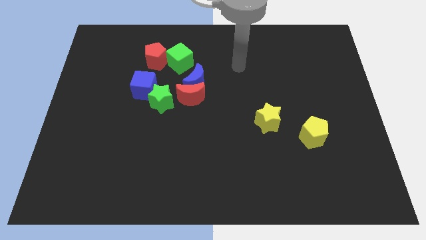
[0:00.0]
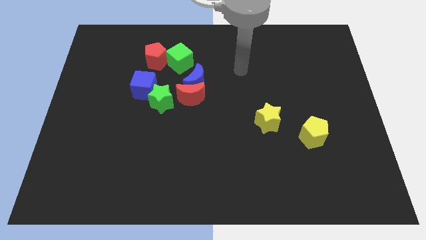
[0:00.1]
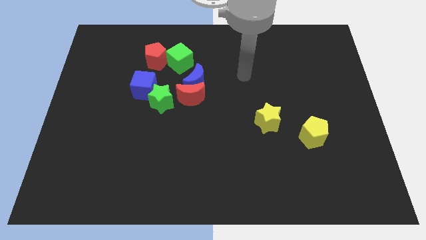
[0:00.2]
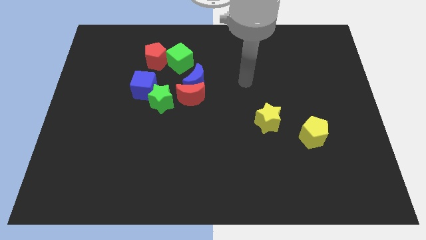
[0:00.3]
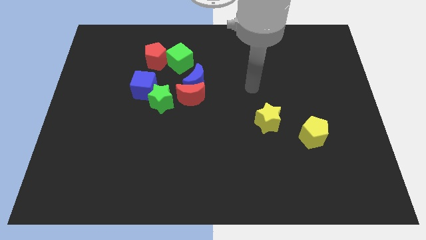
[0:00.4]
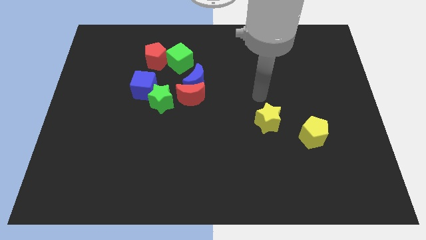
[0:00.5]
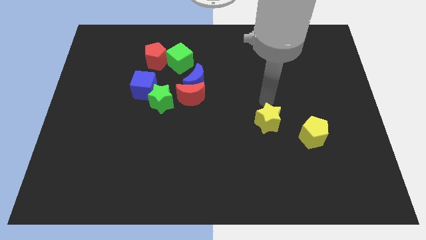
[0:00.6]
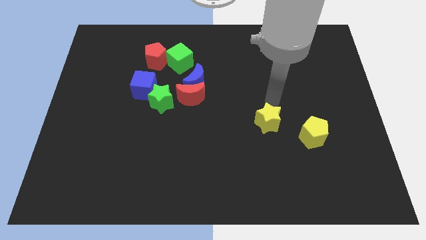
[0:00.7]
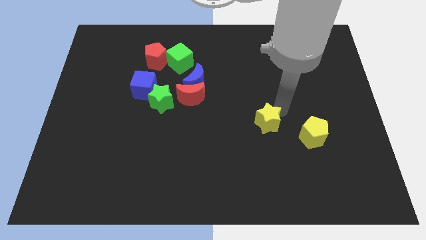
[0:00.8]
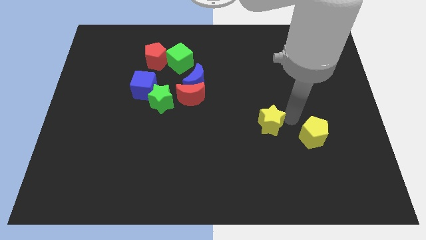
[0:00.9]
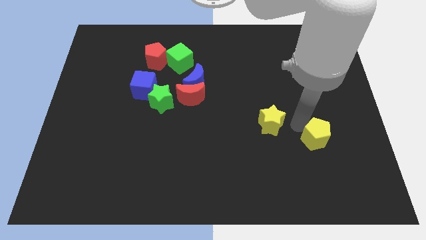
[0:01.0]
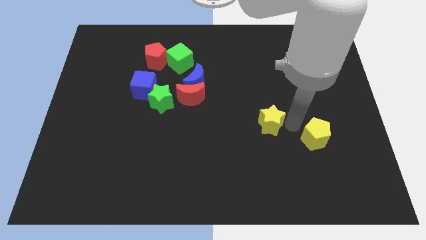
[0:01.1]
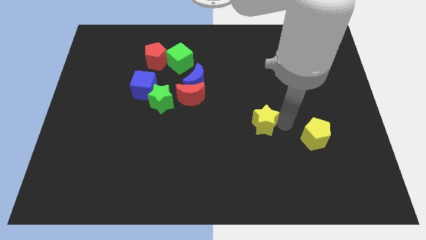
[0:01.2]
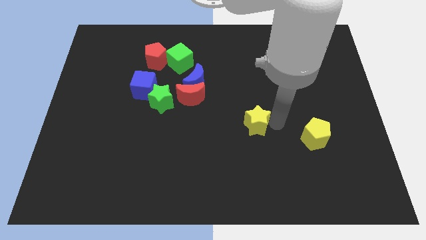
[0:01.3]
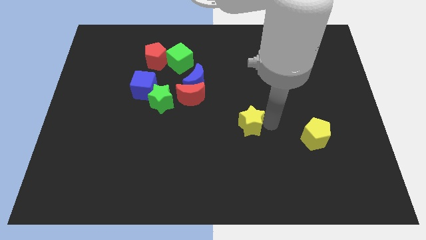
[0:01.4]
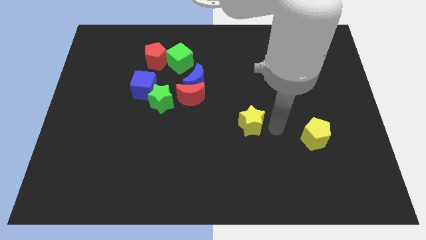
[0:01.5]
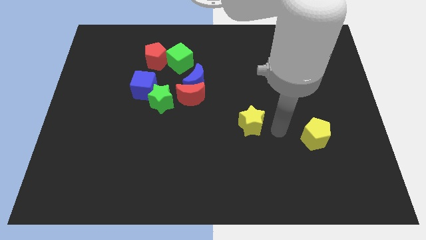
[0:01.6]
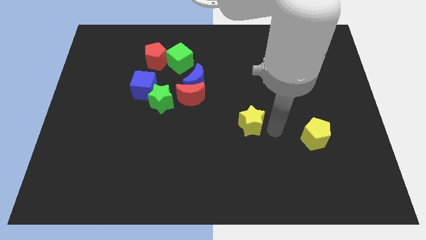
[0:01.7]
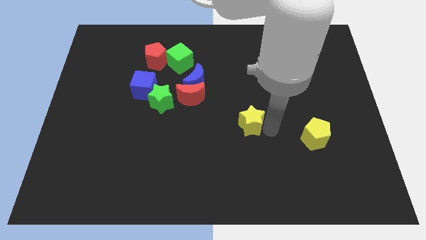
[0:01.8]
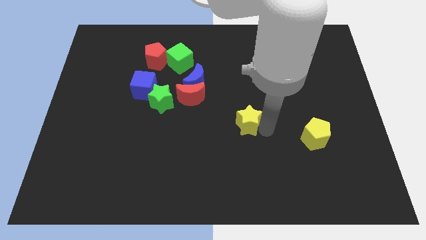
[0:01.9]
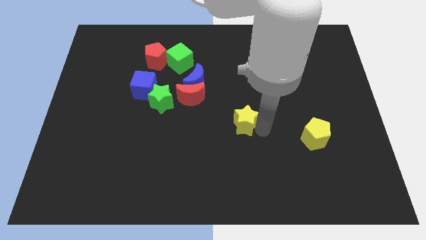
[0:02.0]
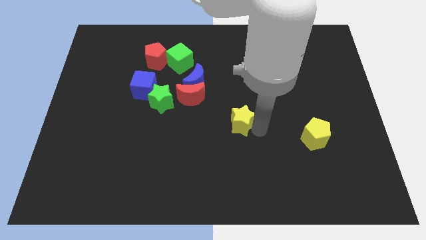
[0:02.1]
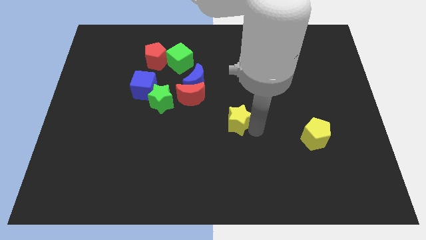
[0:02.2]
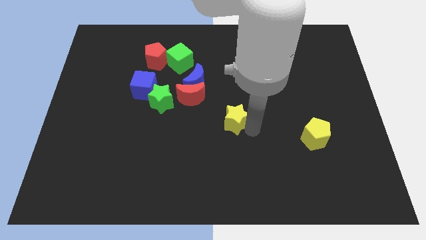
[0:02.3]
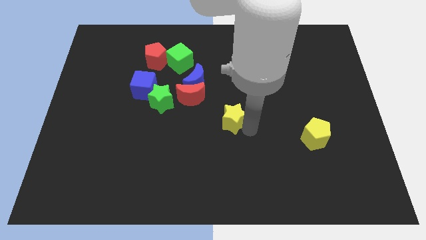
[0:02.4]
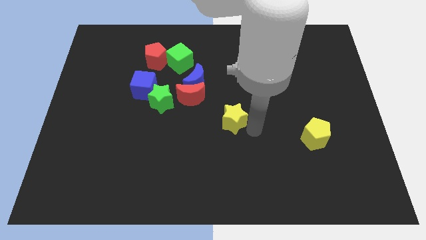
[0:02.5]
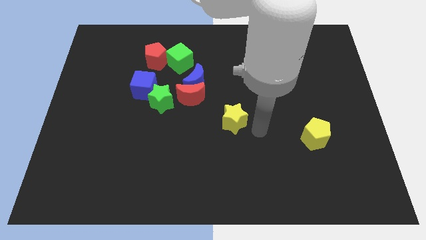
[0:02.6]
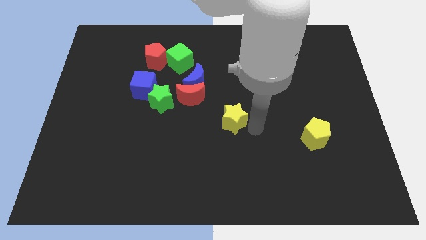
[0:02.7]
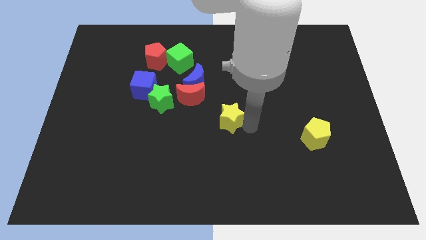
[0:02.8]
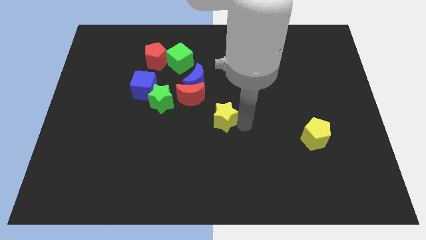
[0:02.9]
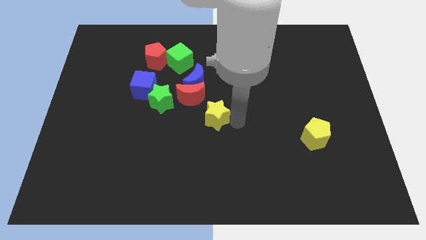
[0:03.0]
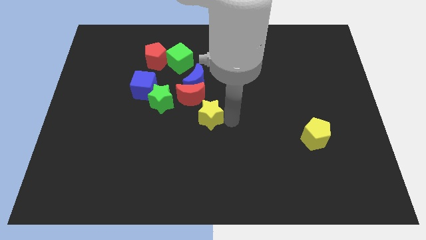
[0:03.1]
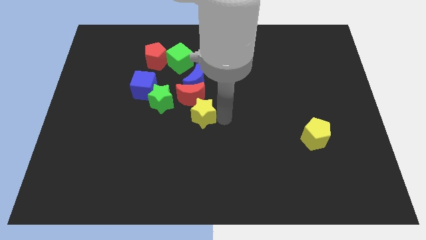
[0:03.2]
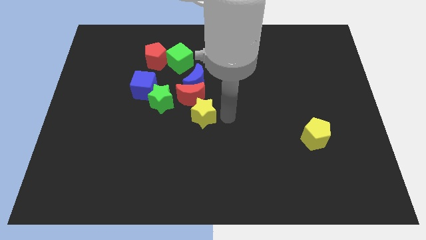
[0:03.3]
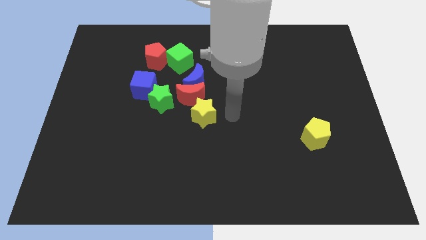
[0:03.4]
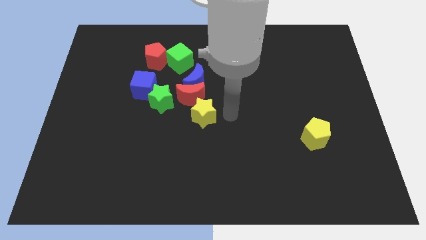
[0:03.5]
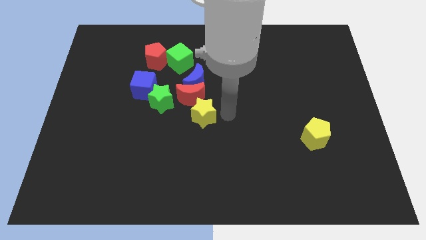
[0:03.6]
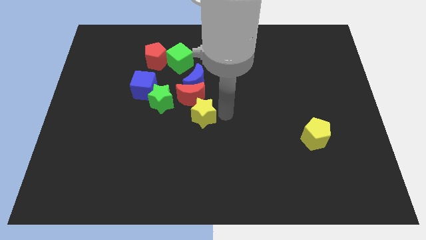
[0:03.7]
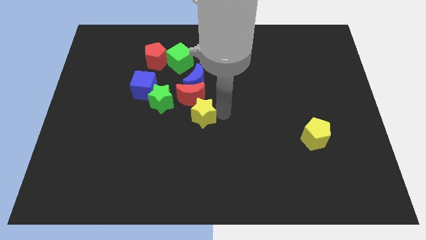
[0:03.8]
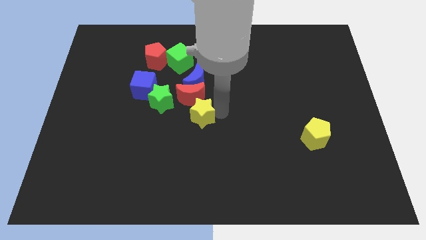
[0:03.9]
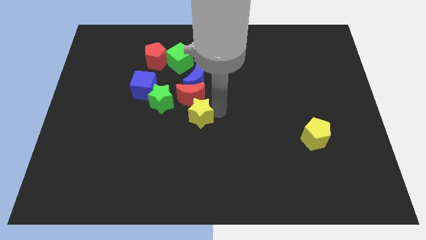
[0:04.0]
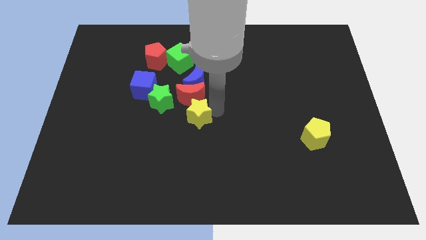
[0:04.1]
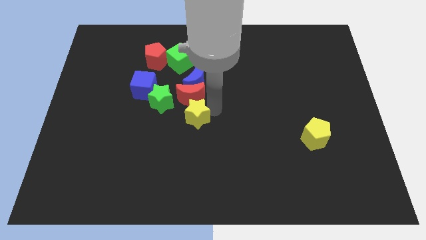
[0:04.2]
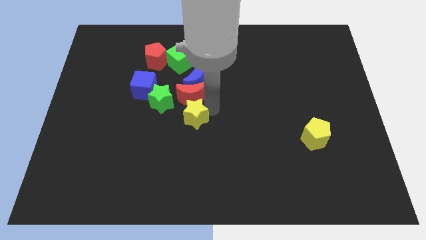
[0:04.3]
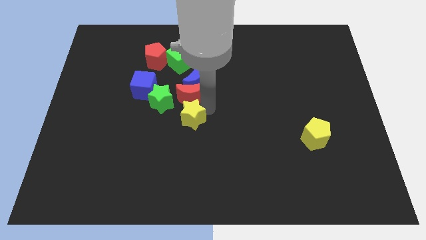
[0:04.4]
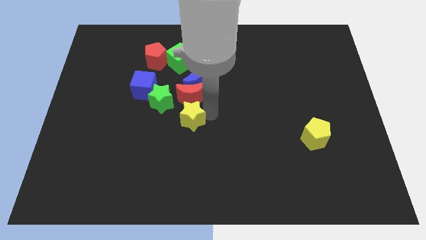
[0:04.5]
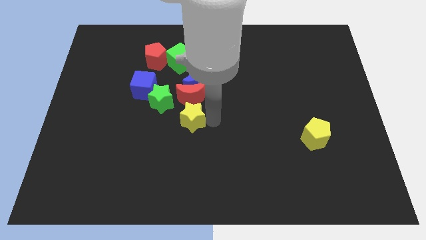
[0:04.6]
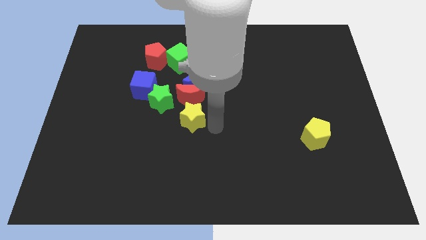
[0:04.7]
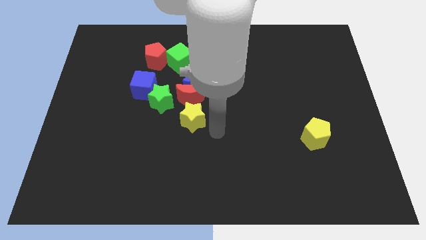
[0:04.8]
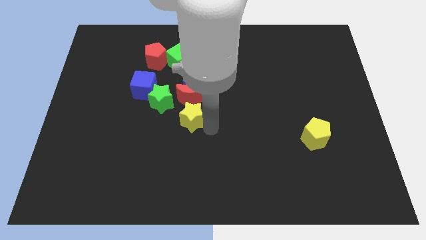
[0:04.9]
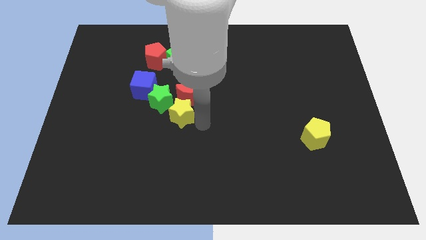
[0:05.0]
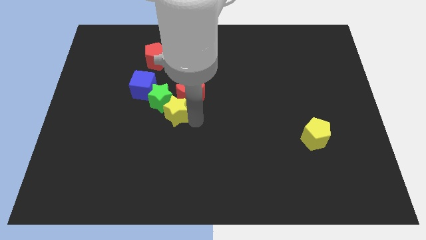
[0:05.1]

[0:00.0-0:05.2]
put the yellow star close to the green star

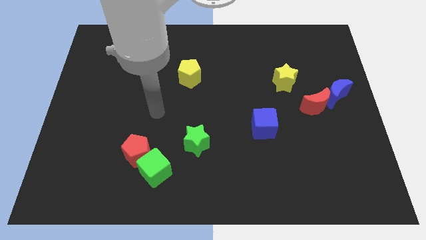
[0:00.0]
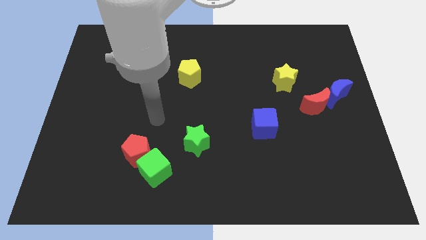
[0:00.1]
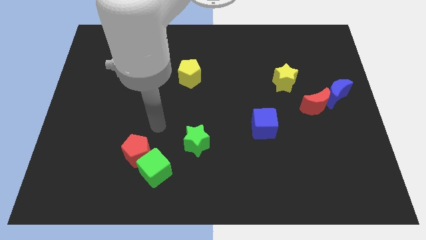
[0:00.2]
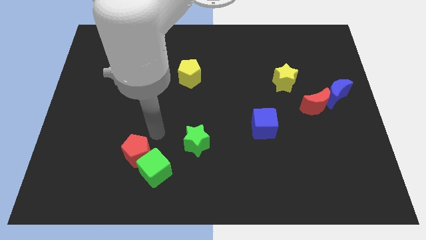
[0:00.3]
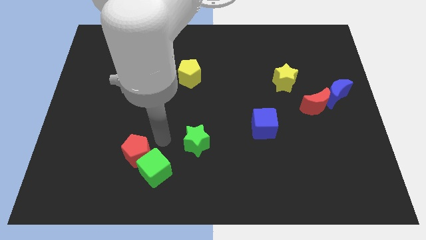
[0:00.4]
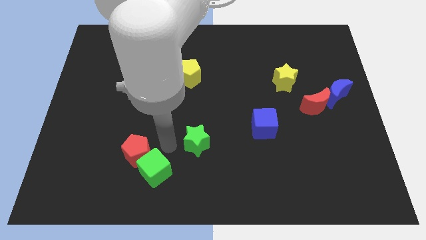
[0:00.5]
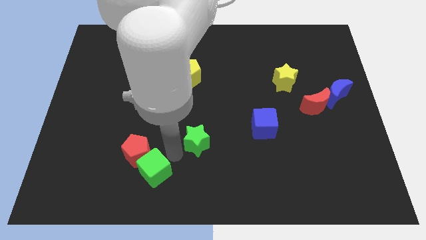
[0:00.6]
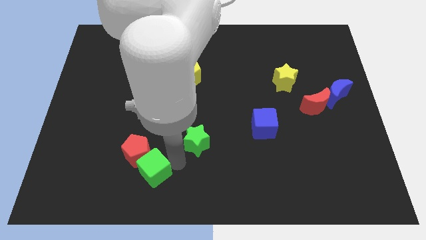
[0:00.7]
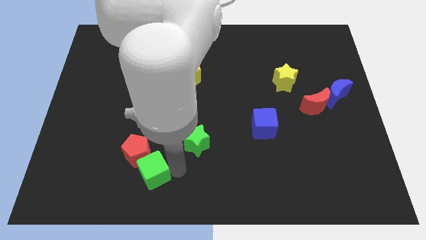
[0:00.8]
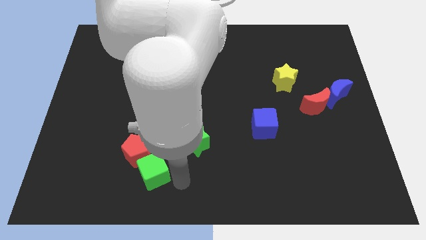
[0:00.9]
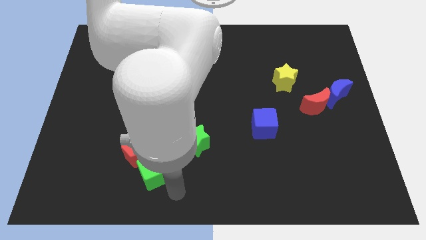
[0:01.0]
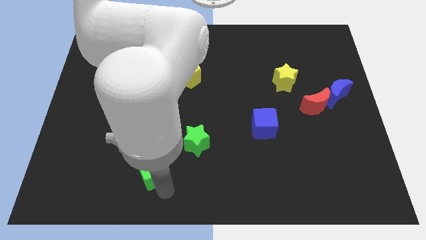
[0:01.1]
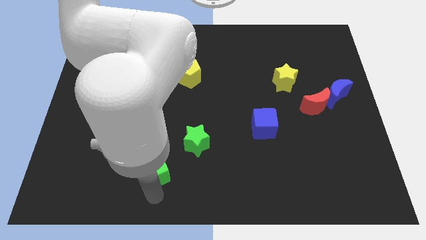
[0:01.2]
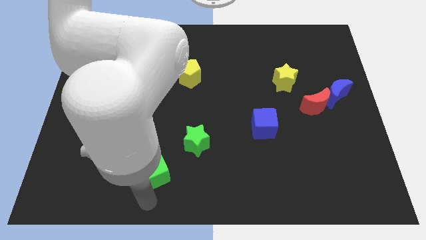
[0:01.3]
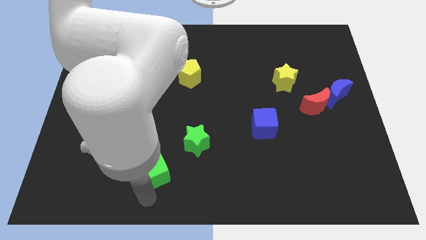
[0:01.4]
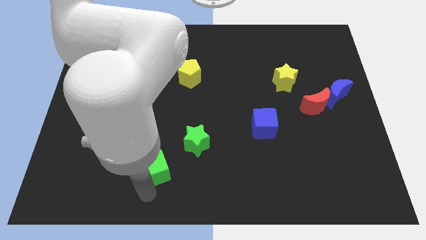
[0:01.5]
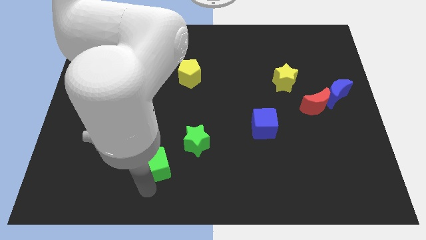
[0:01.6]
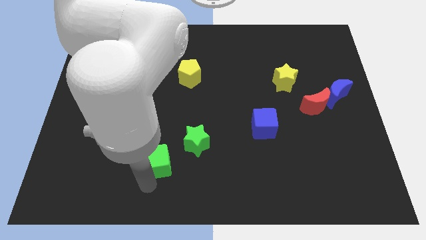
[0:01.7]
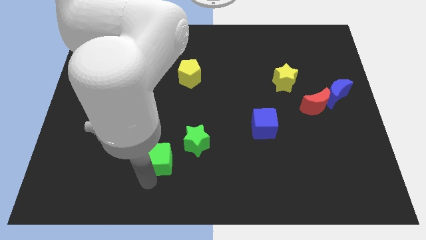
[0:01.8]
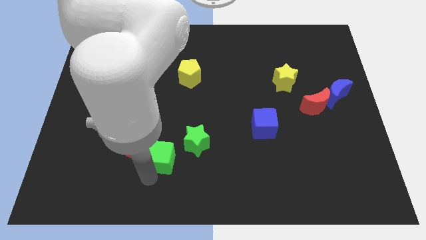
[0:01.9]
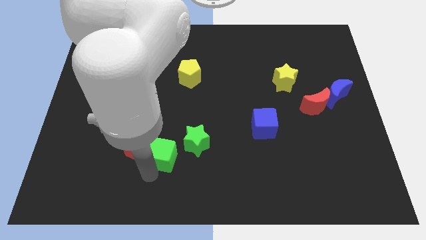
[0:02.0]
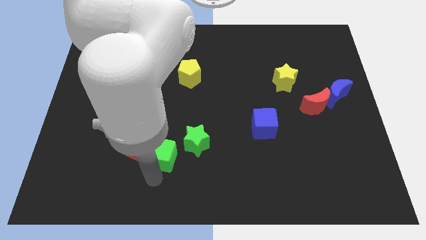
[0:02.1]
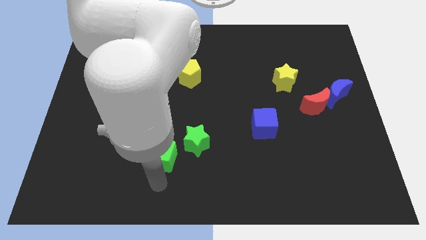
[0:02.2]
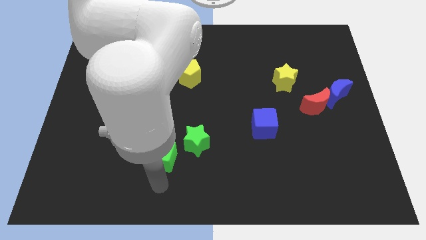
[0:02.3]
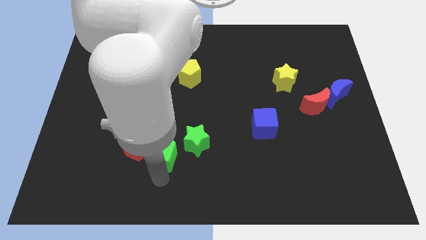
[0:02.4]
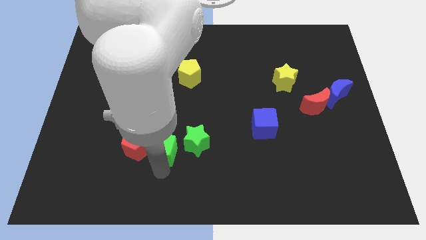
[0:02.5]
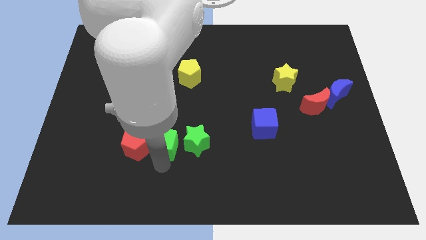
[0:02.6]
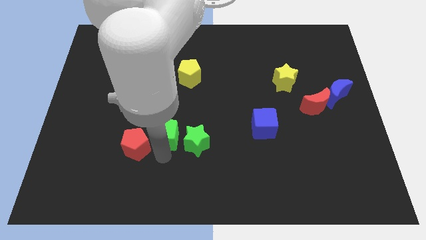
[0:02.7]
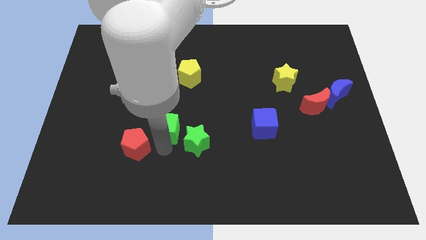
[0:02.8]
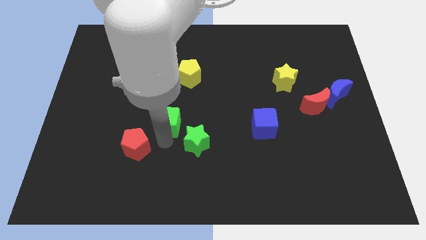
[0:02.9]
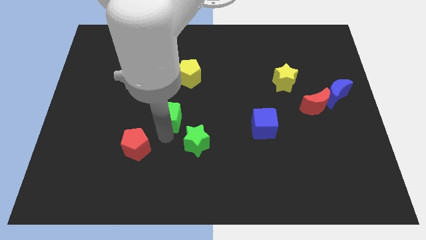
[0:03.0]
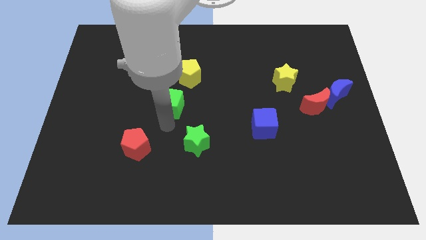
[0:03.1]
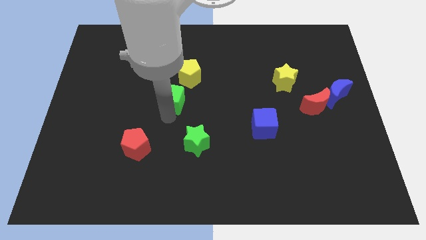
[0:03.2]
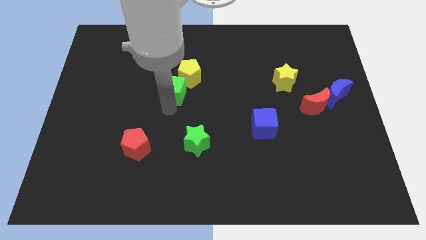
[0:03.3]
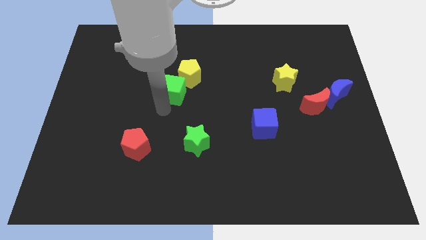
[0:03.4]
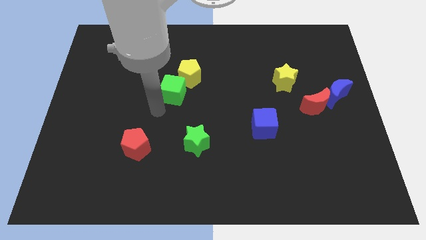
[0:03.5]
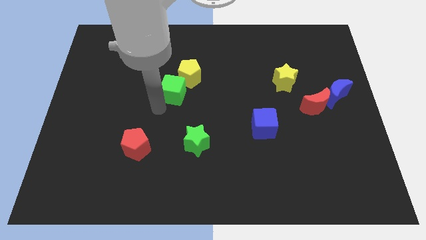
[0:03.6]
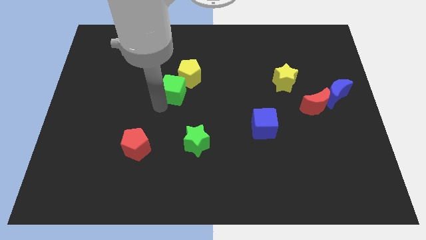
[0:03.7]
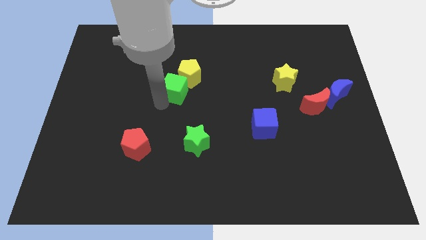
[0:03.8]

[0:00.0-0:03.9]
push the green cube close to the yellow pentagon
